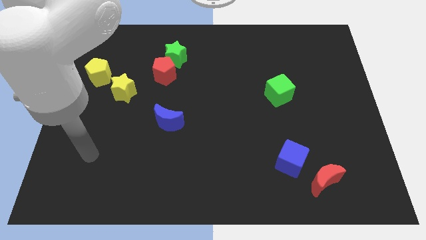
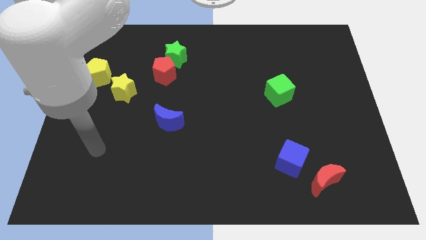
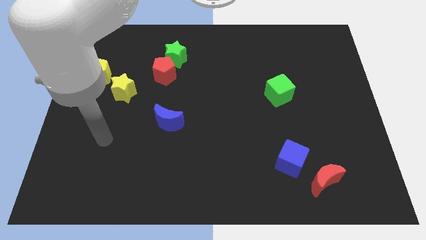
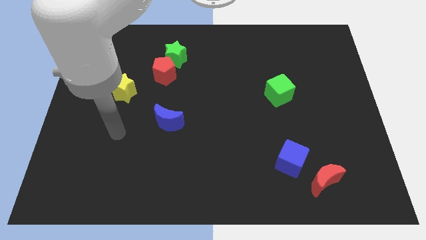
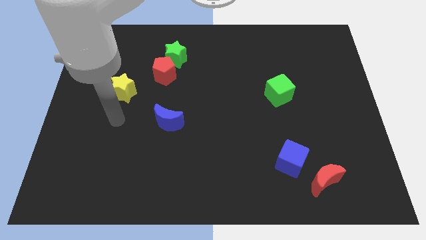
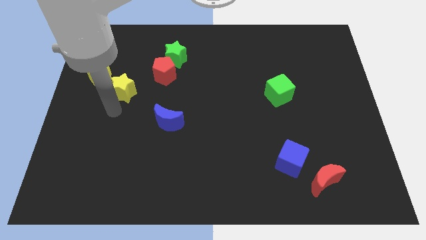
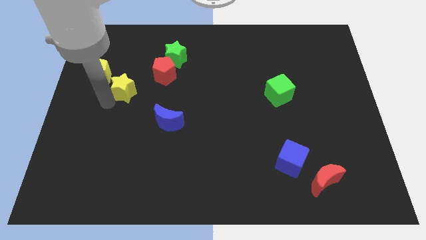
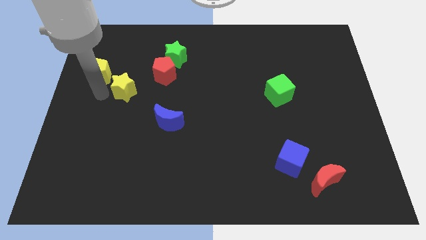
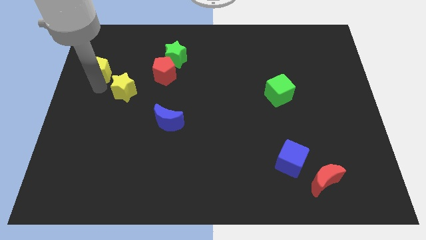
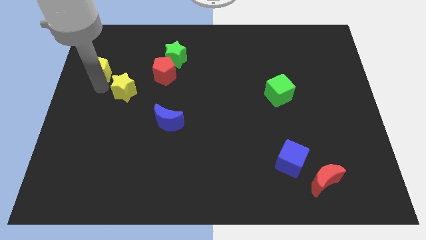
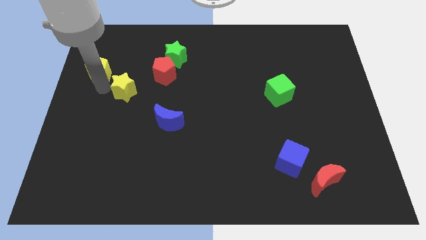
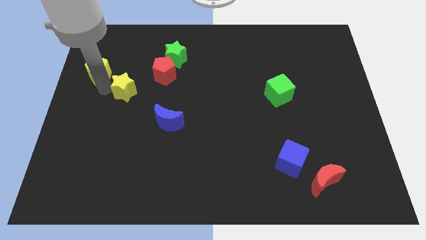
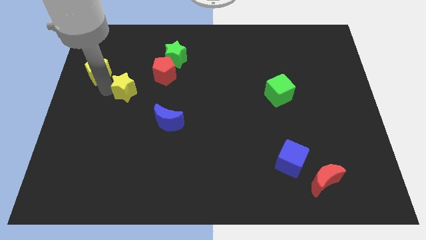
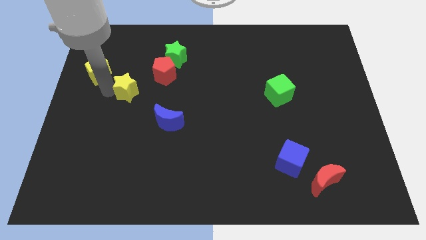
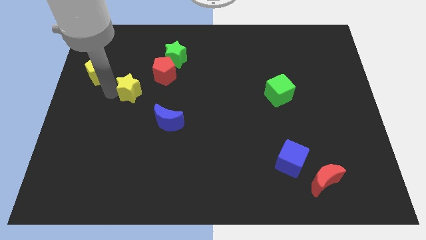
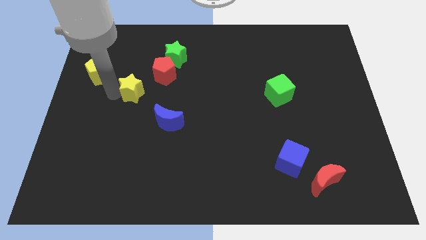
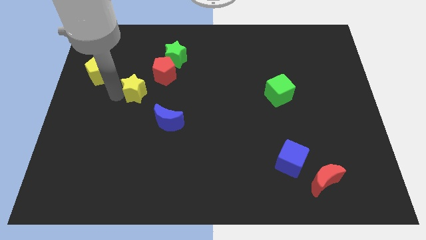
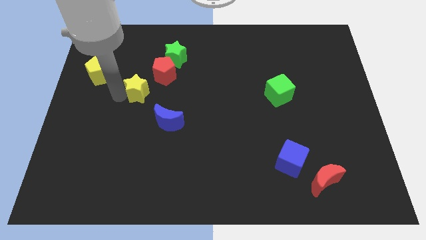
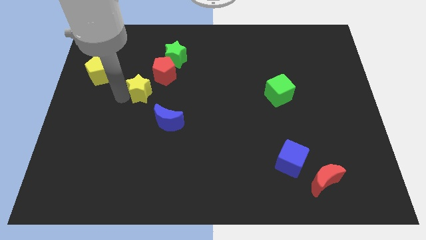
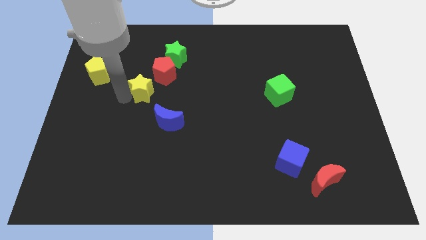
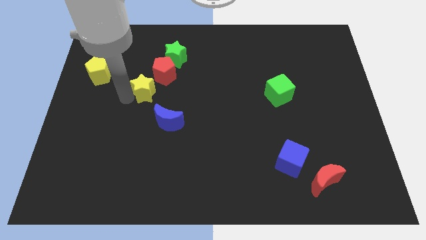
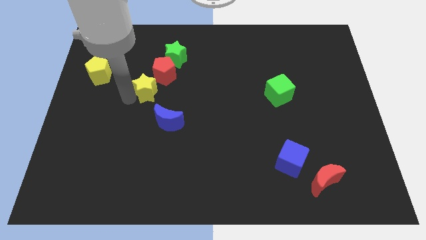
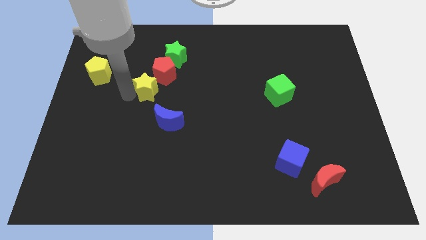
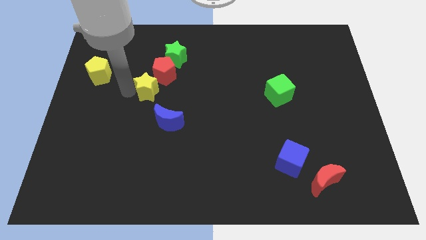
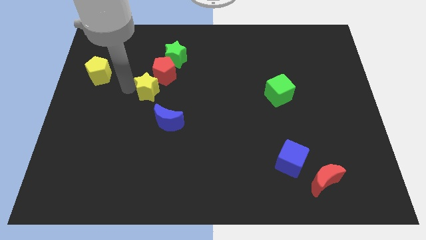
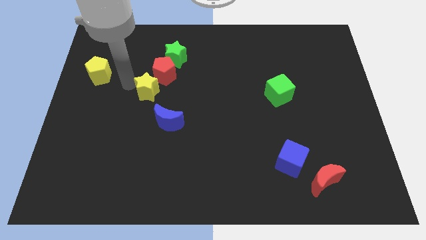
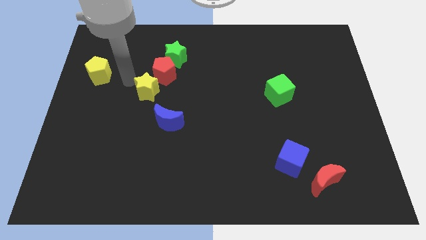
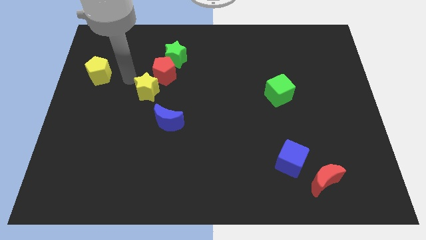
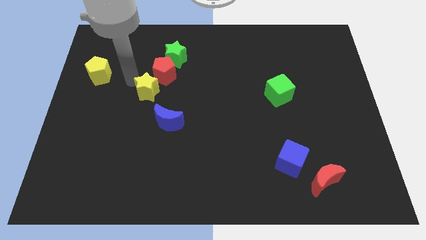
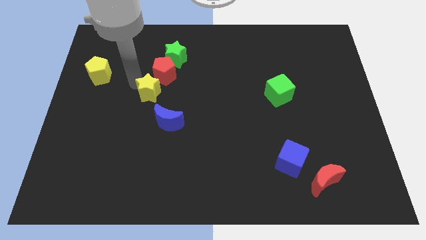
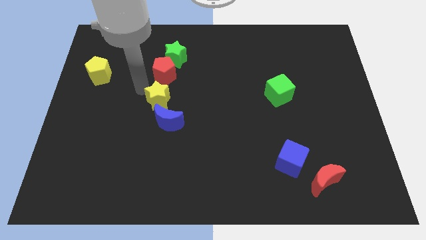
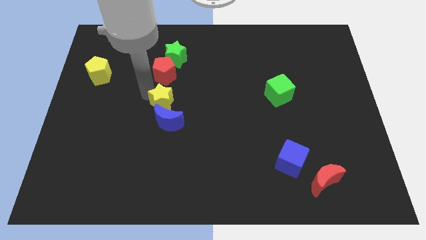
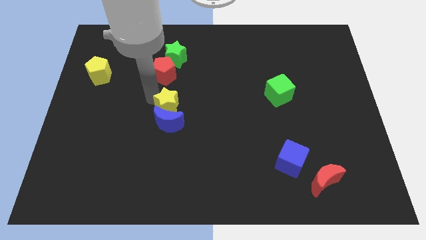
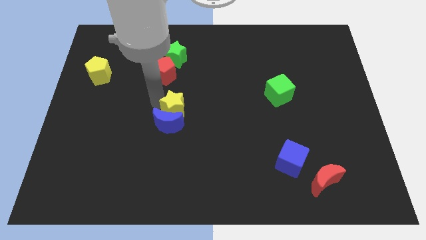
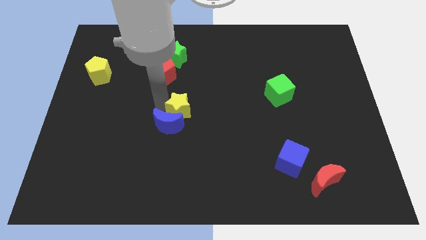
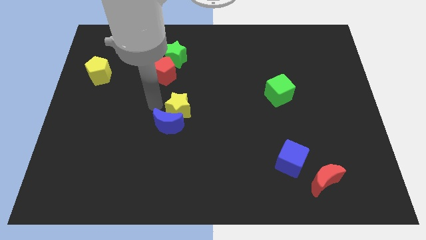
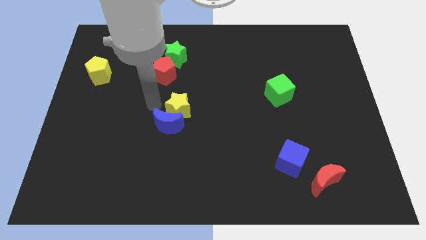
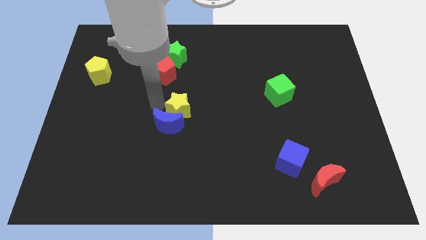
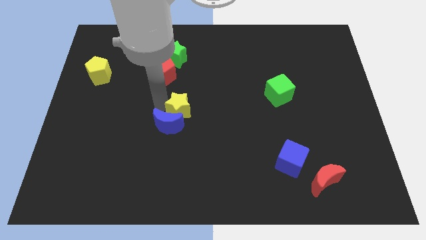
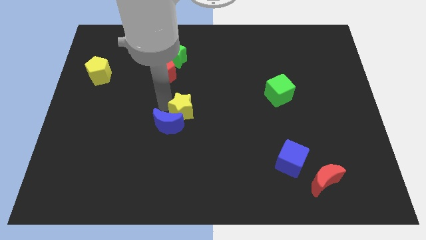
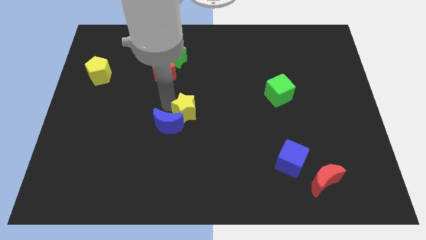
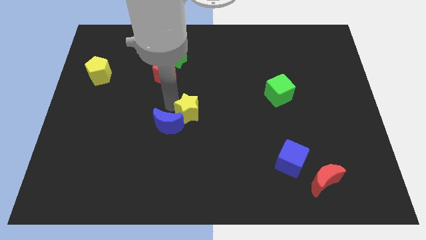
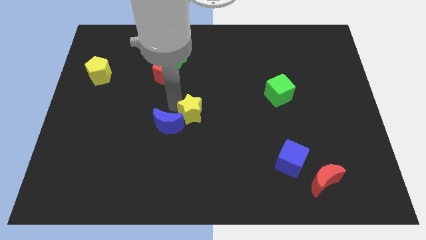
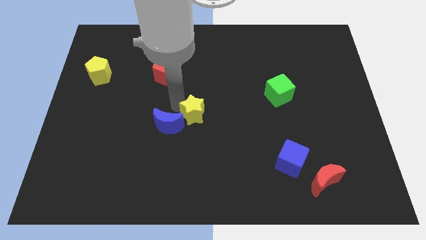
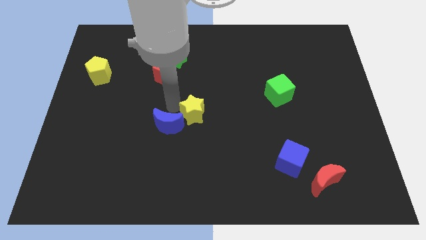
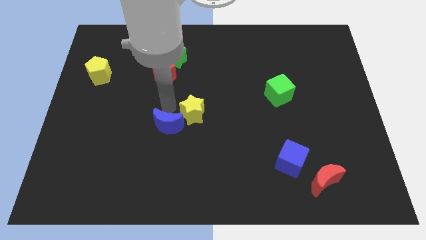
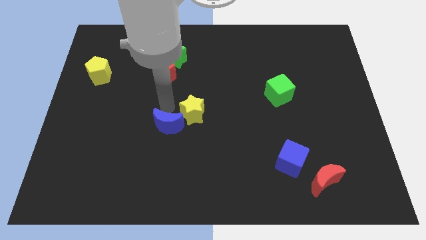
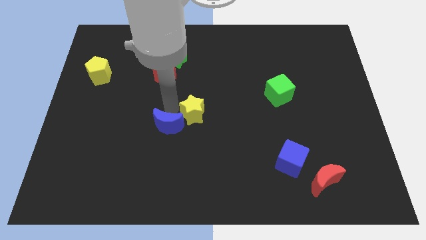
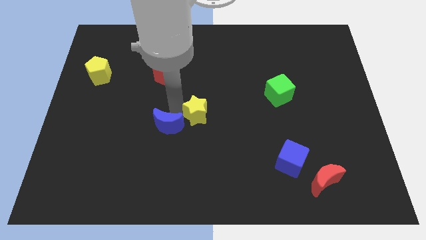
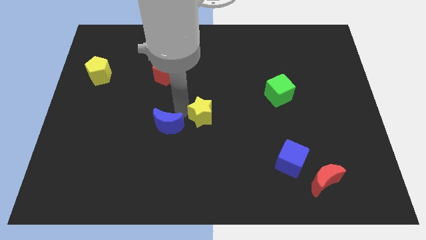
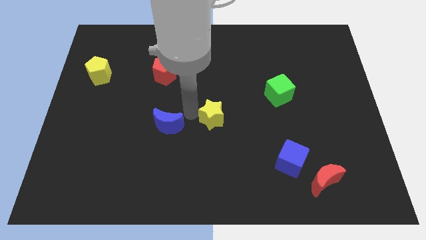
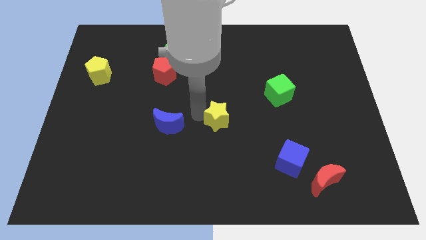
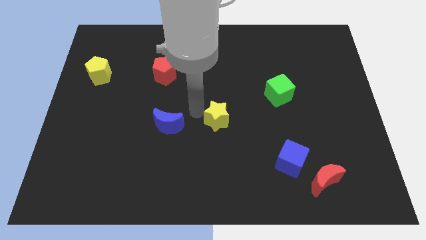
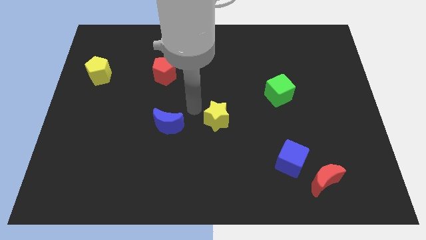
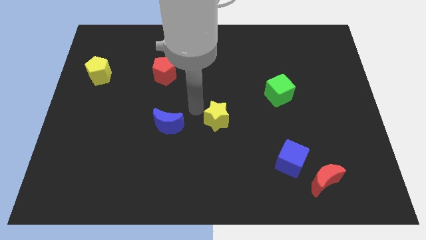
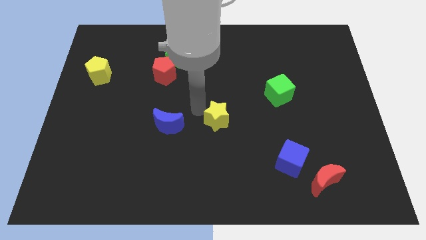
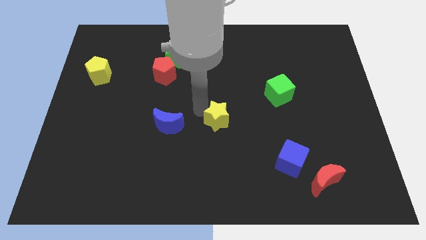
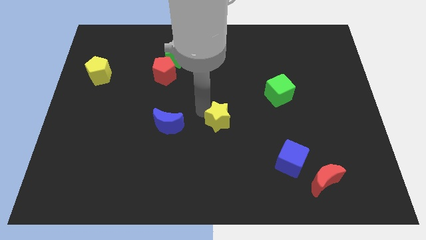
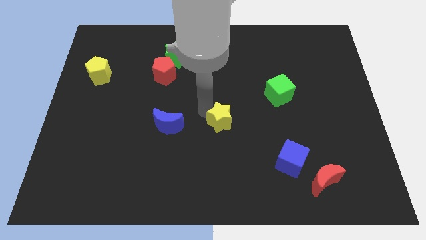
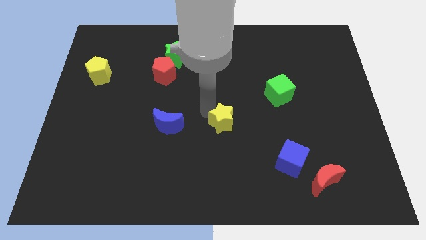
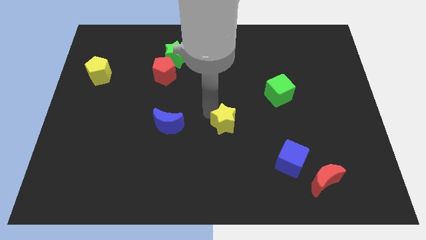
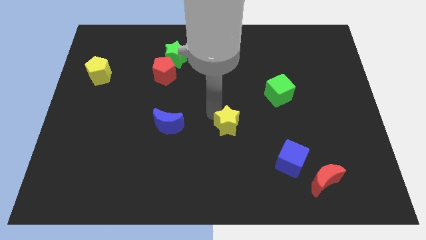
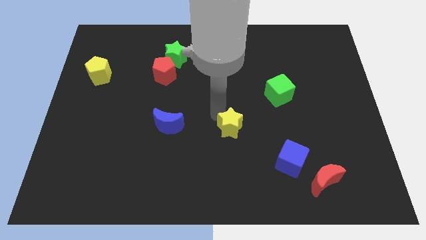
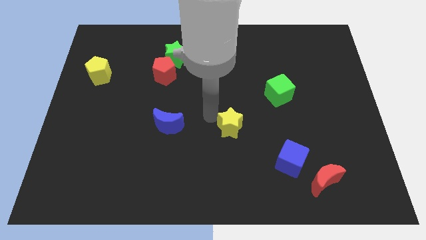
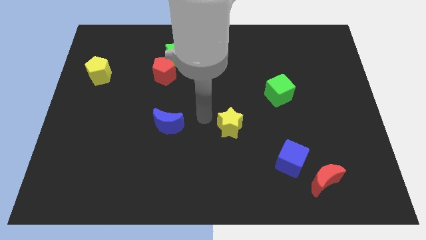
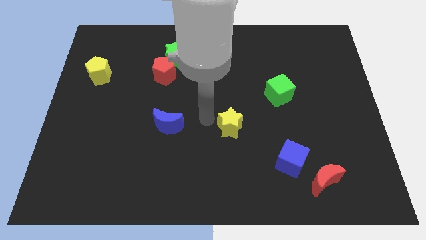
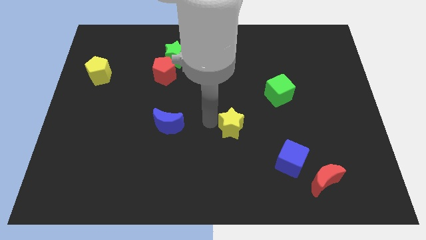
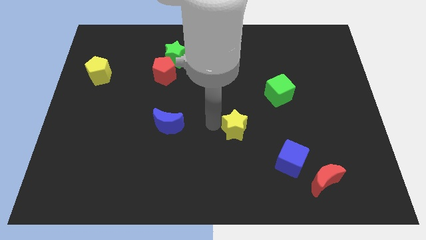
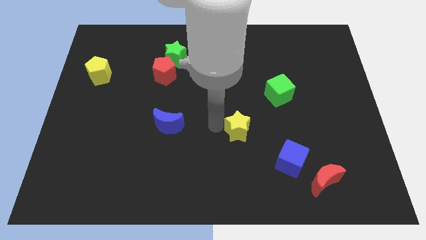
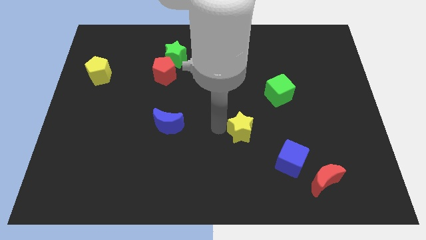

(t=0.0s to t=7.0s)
move the yellow star to the top left side of the blue cube

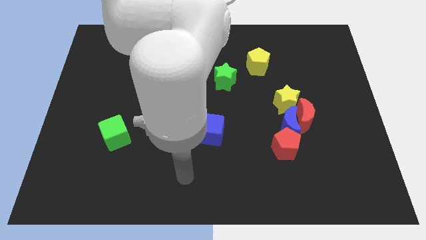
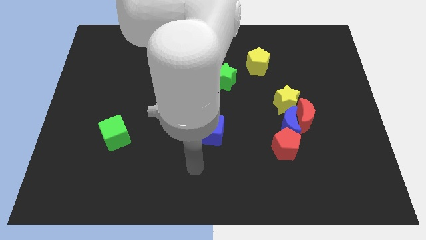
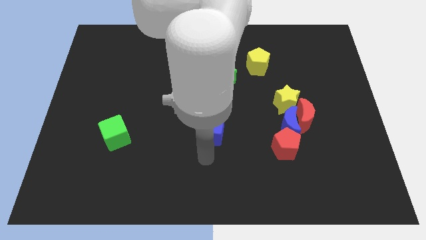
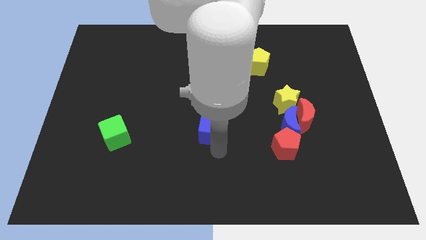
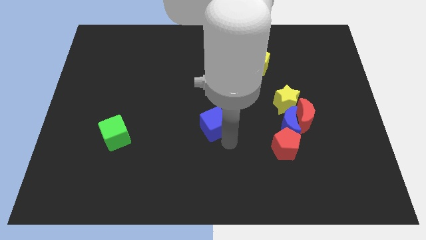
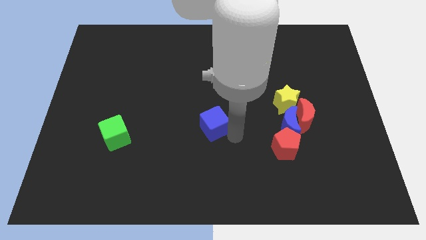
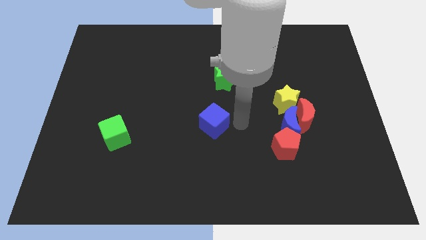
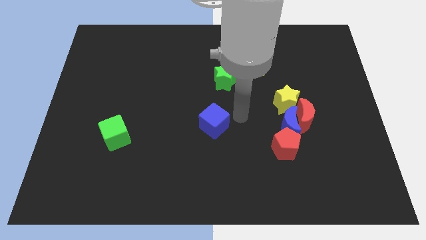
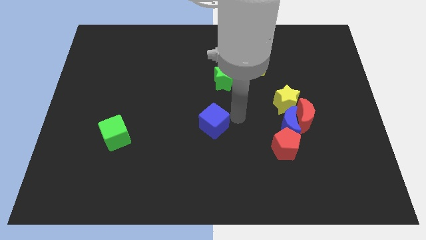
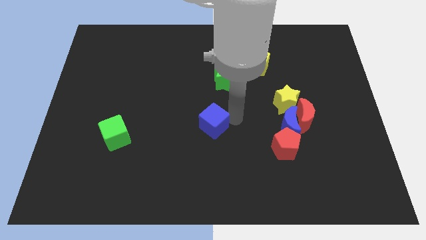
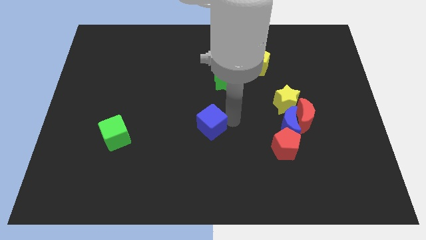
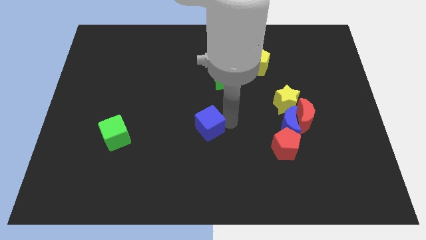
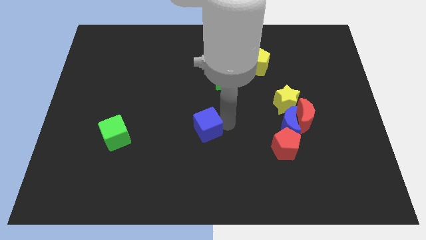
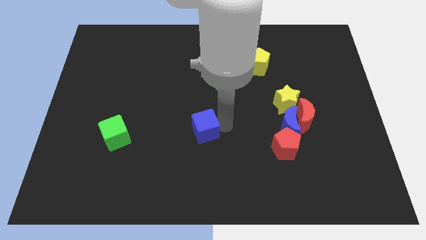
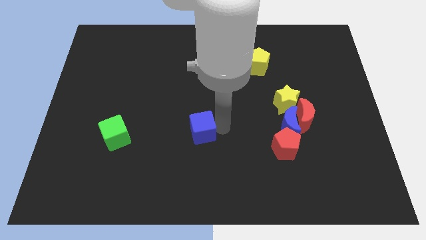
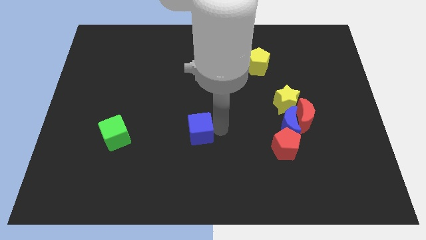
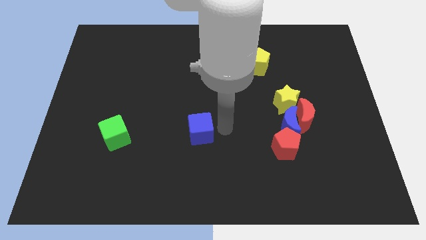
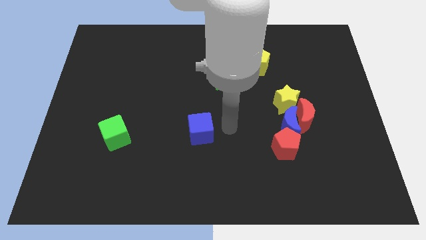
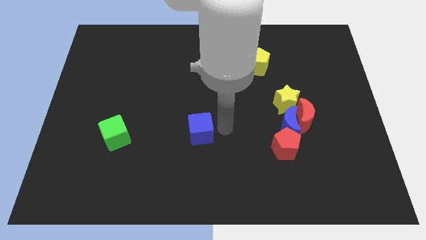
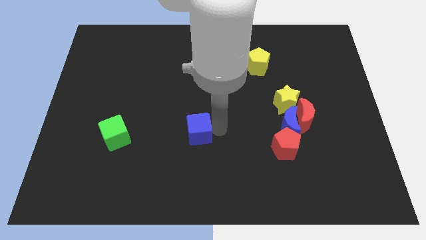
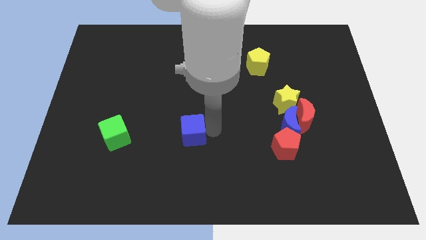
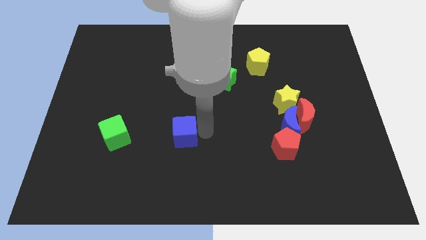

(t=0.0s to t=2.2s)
slide the blue cube right of the green cube
